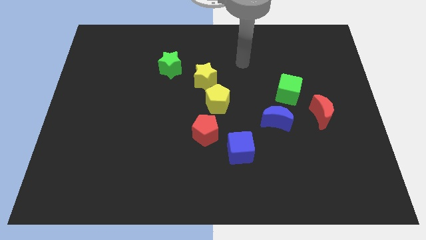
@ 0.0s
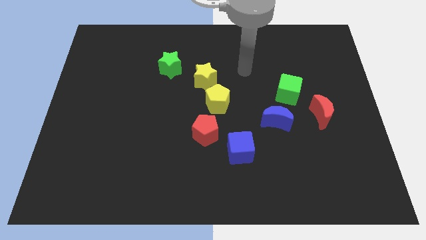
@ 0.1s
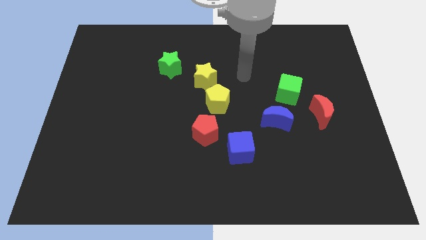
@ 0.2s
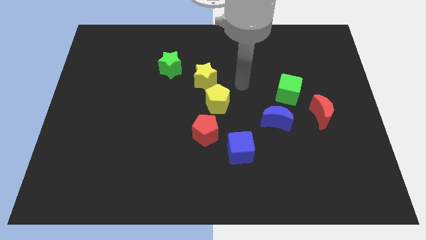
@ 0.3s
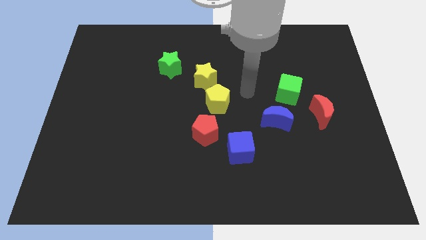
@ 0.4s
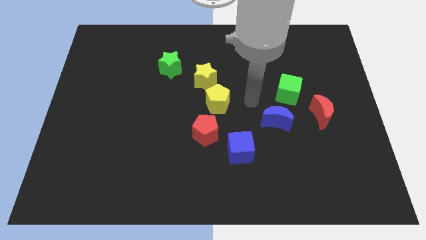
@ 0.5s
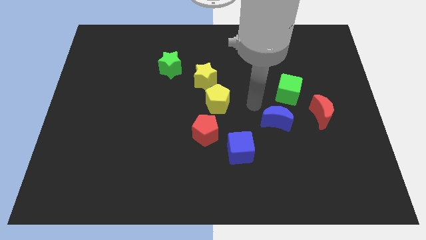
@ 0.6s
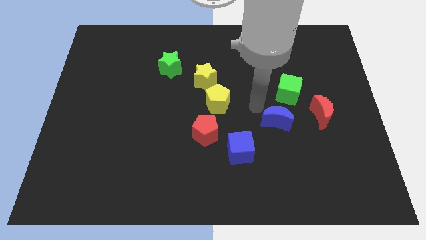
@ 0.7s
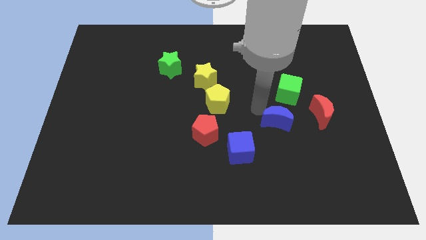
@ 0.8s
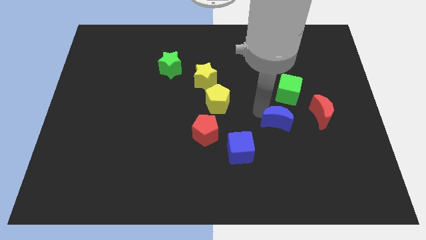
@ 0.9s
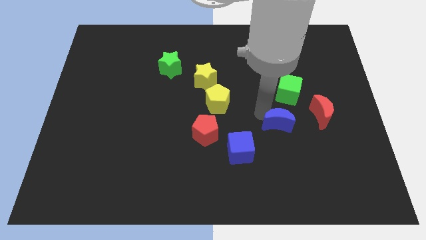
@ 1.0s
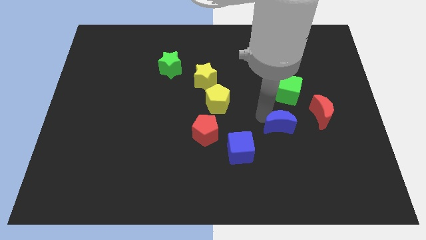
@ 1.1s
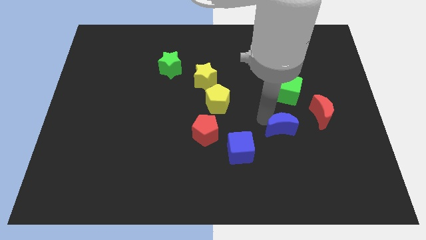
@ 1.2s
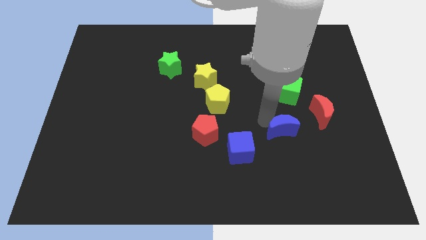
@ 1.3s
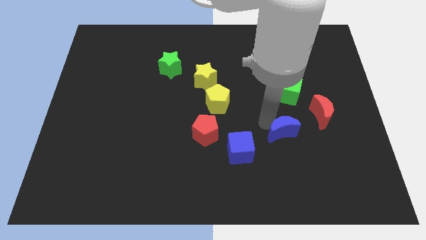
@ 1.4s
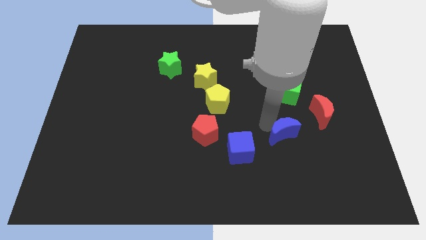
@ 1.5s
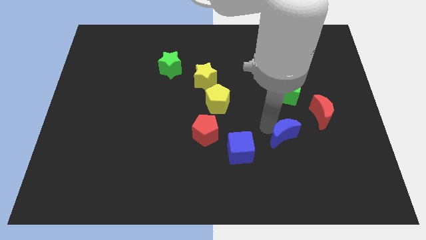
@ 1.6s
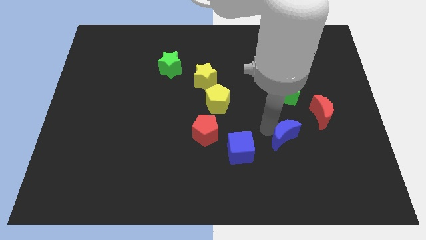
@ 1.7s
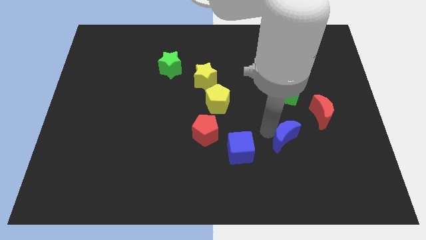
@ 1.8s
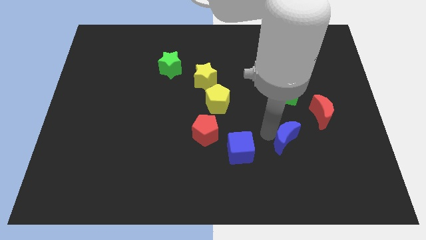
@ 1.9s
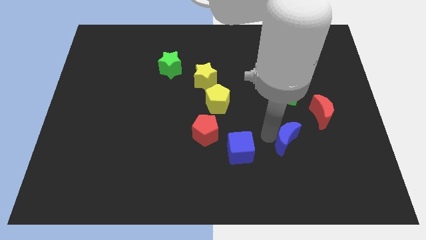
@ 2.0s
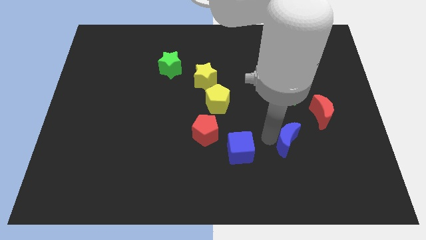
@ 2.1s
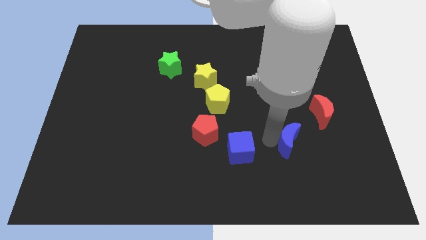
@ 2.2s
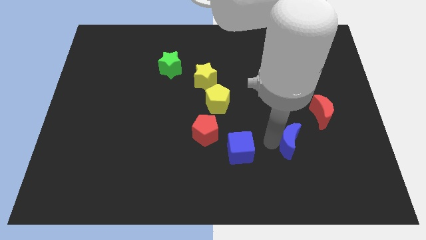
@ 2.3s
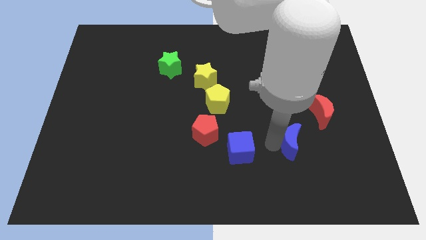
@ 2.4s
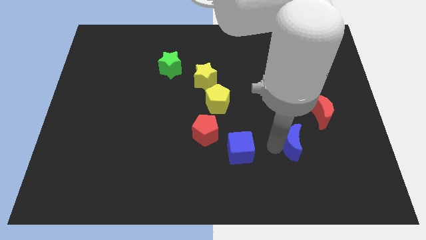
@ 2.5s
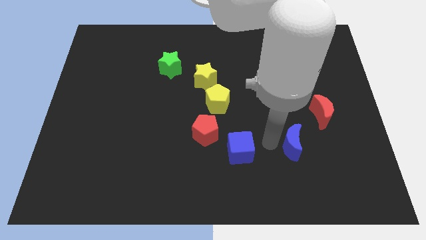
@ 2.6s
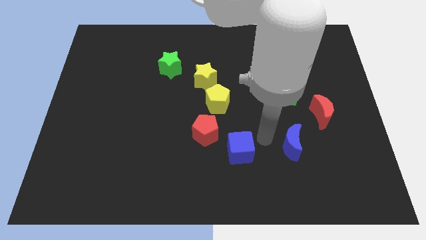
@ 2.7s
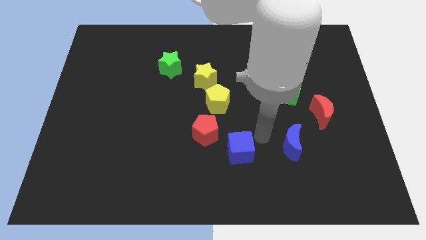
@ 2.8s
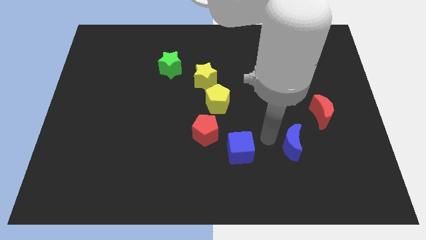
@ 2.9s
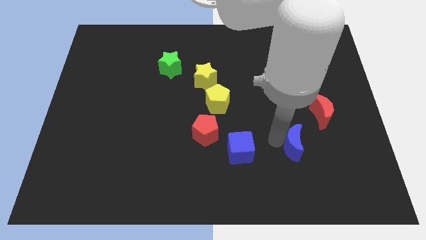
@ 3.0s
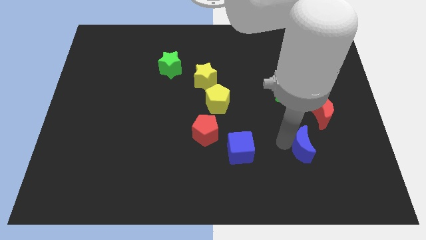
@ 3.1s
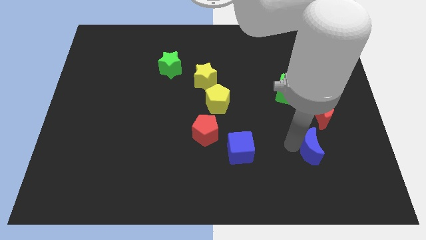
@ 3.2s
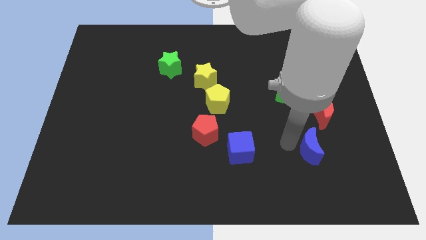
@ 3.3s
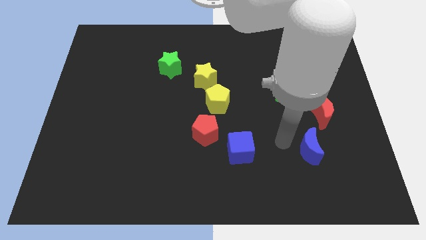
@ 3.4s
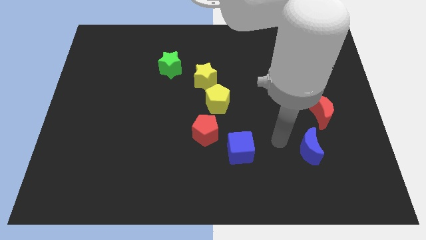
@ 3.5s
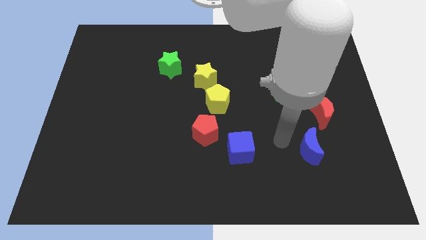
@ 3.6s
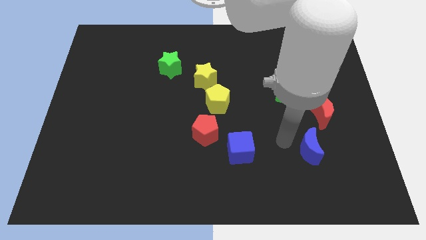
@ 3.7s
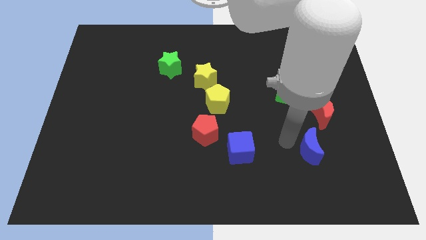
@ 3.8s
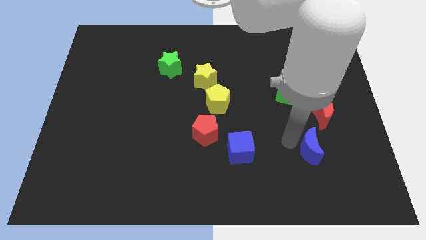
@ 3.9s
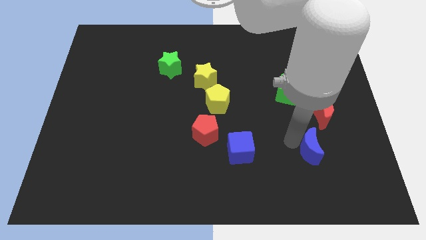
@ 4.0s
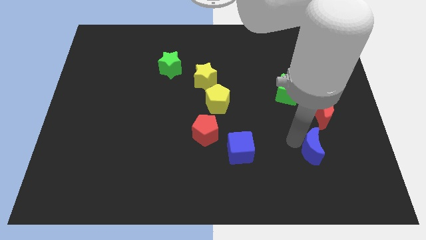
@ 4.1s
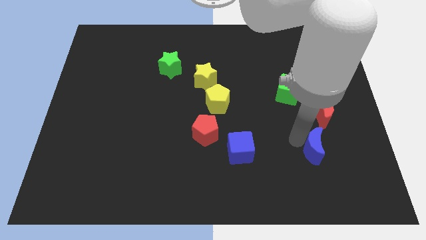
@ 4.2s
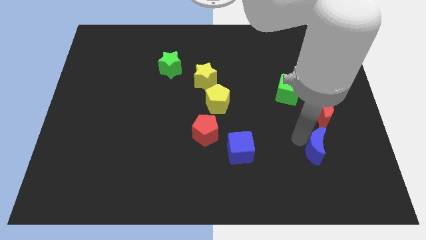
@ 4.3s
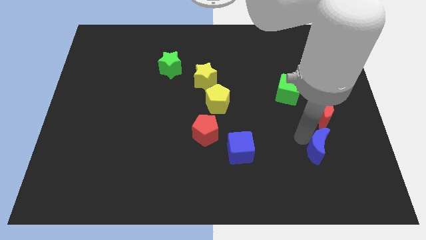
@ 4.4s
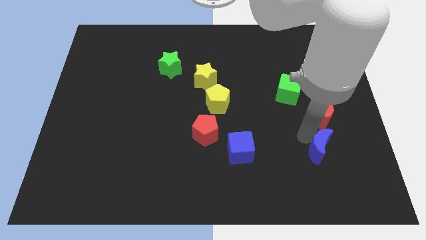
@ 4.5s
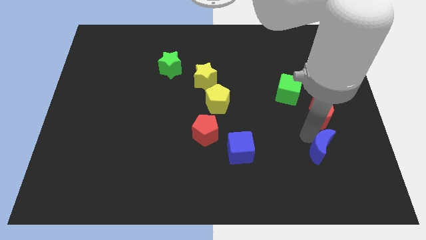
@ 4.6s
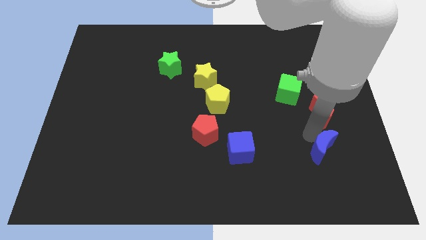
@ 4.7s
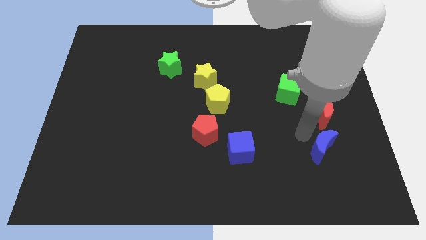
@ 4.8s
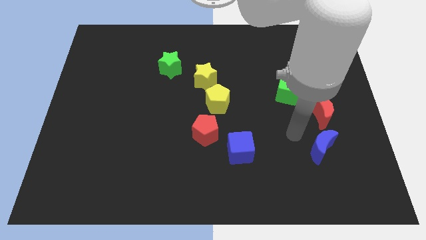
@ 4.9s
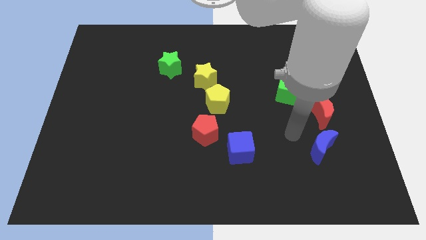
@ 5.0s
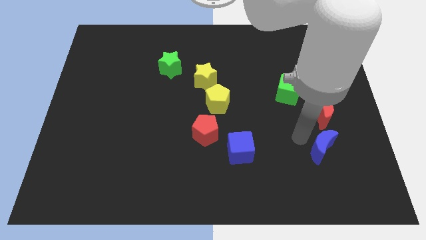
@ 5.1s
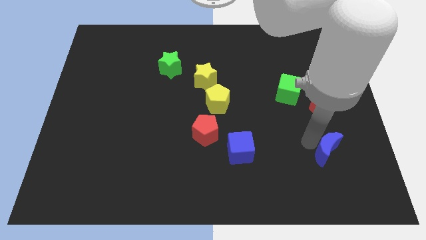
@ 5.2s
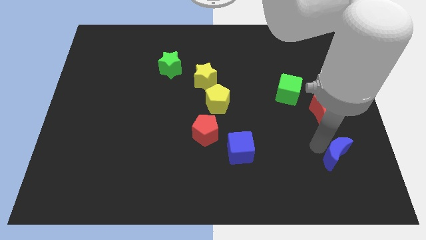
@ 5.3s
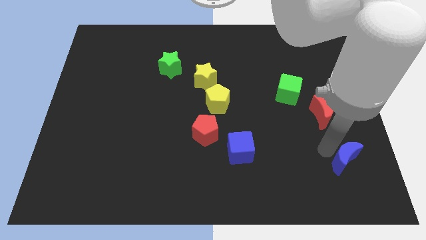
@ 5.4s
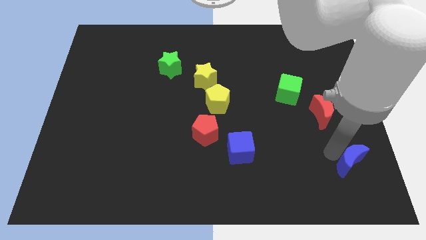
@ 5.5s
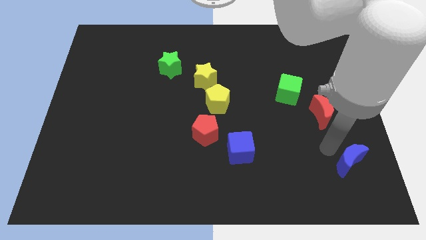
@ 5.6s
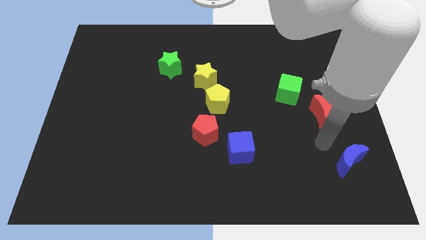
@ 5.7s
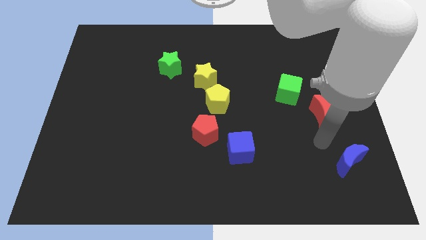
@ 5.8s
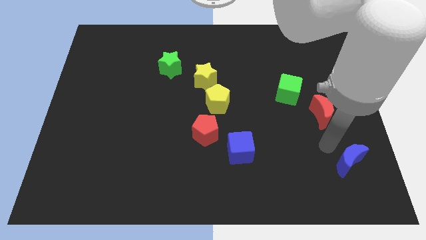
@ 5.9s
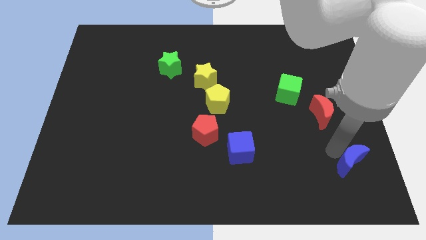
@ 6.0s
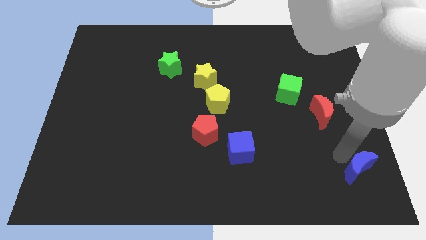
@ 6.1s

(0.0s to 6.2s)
push the blue moon to the bottom right of the board

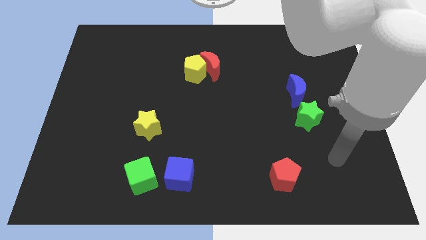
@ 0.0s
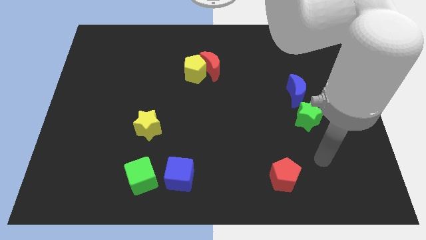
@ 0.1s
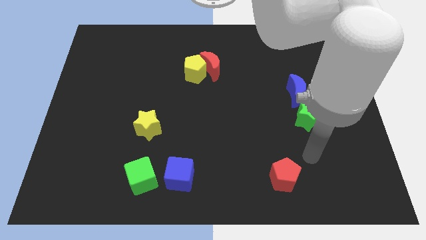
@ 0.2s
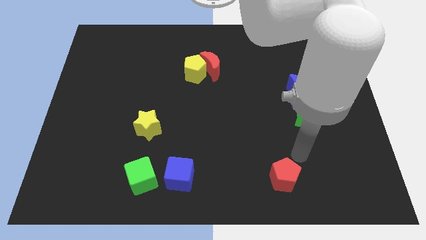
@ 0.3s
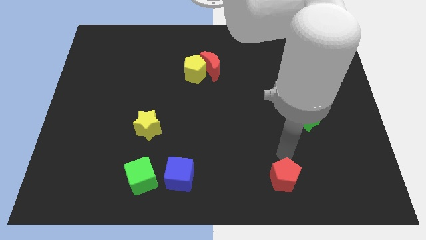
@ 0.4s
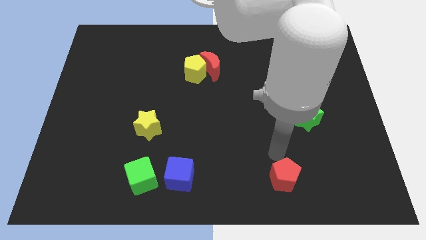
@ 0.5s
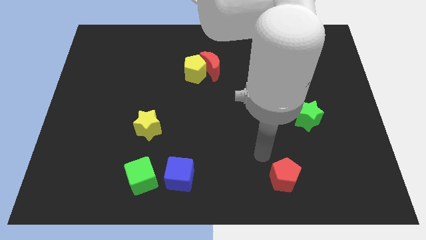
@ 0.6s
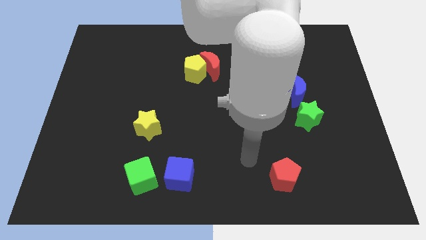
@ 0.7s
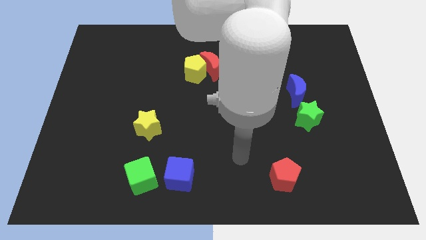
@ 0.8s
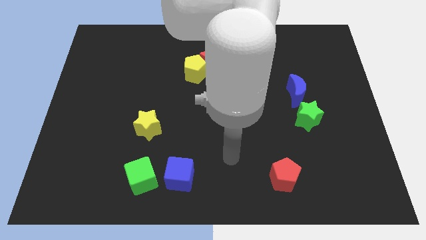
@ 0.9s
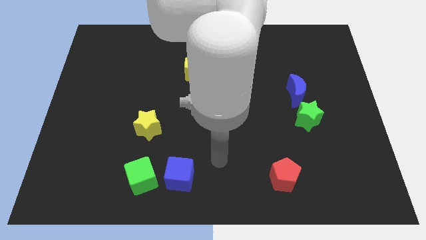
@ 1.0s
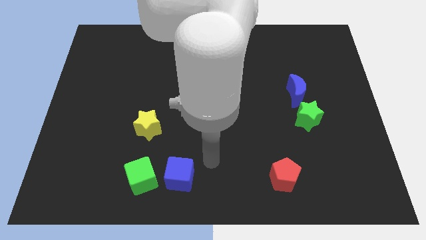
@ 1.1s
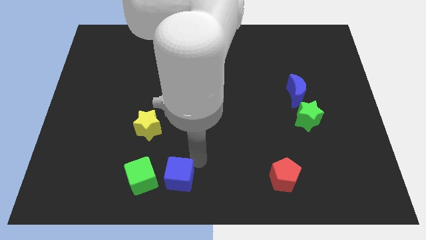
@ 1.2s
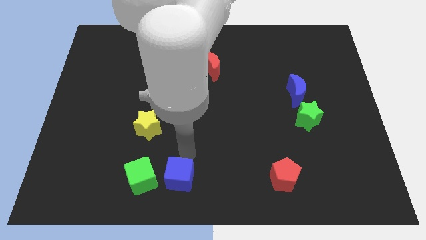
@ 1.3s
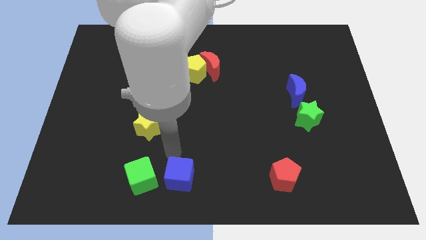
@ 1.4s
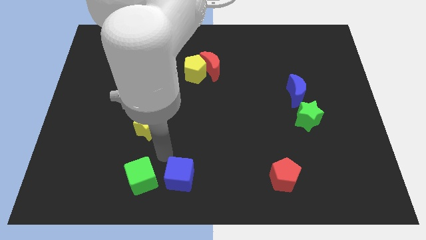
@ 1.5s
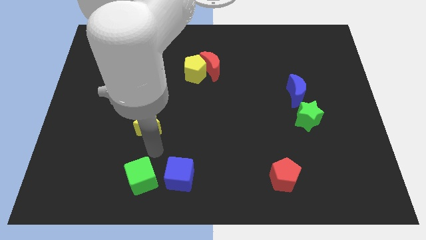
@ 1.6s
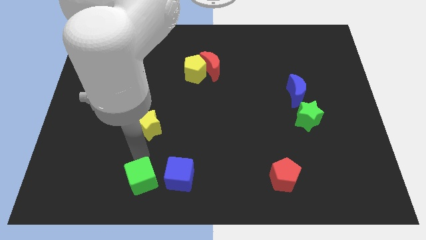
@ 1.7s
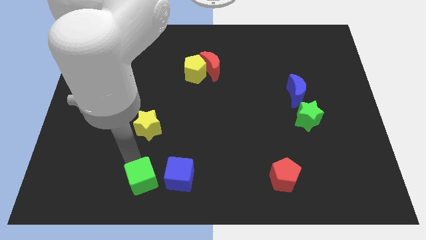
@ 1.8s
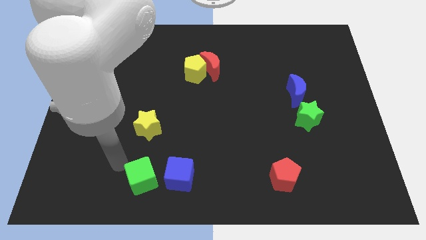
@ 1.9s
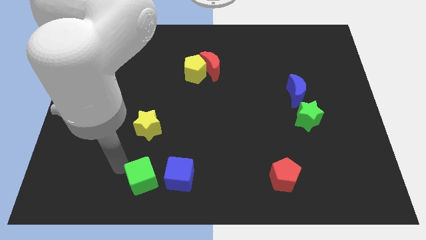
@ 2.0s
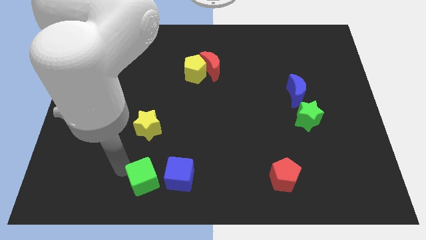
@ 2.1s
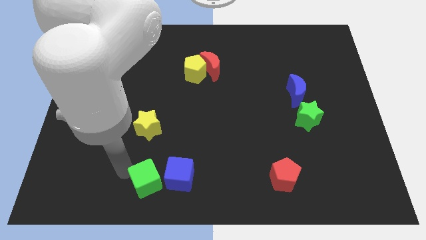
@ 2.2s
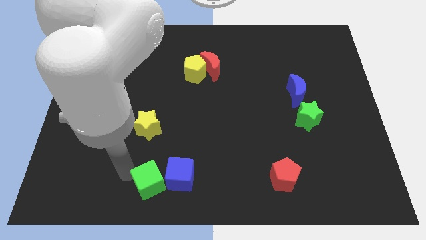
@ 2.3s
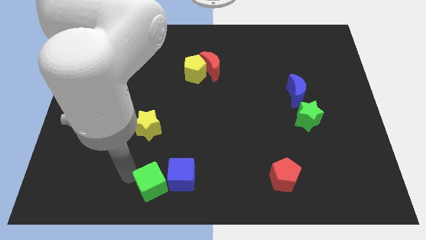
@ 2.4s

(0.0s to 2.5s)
slide the green cube to the bottom
